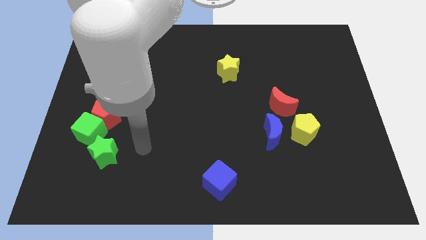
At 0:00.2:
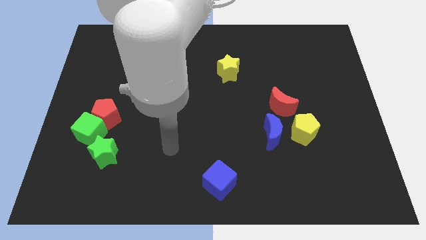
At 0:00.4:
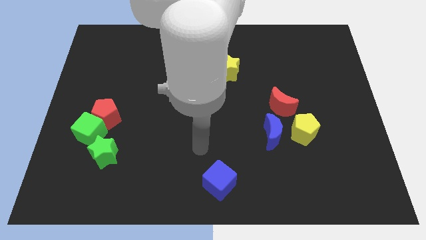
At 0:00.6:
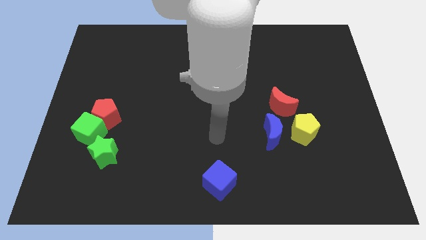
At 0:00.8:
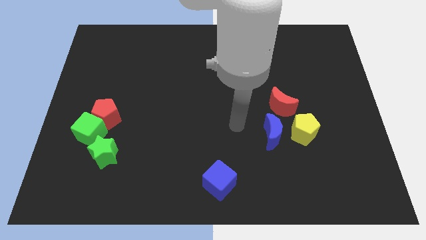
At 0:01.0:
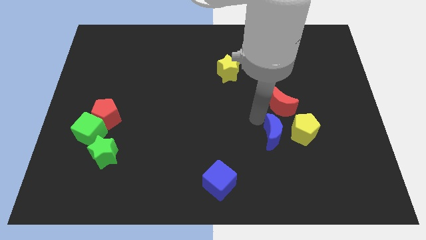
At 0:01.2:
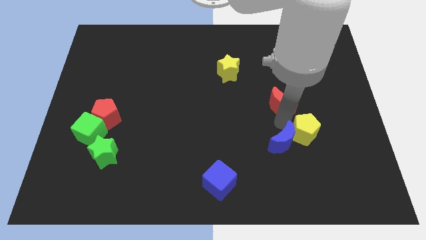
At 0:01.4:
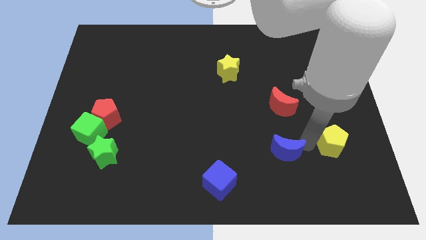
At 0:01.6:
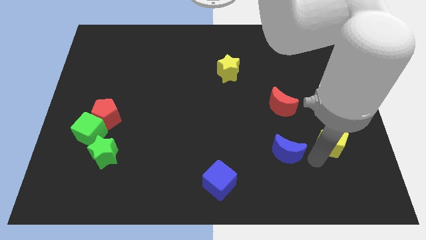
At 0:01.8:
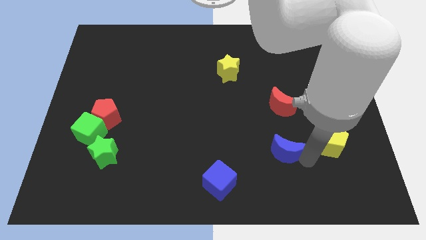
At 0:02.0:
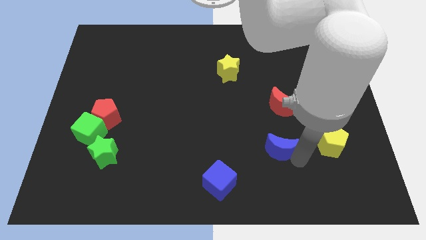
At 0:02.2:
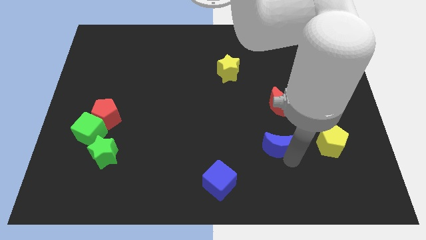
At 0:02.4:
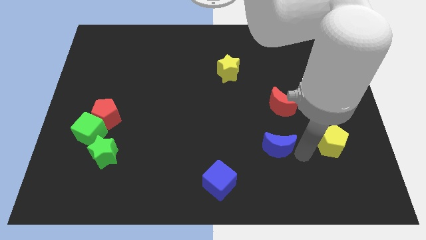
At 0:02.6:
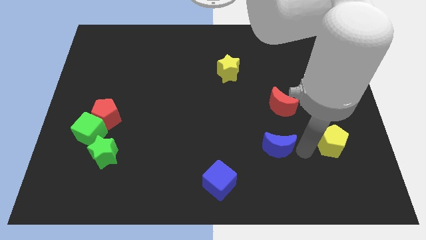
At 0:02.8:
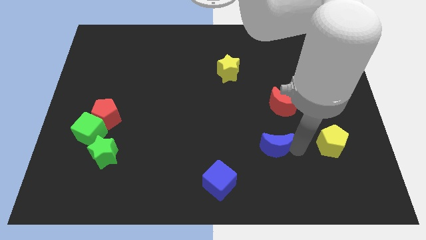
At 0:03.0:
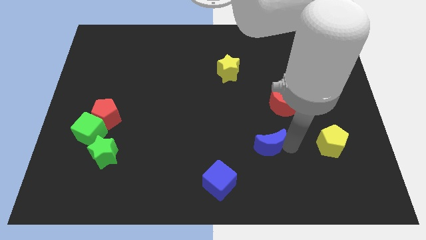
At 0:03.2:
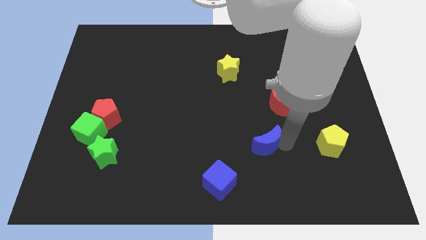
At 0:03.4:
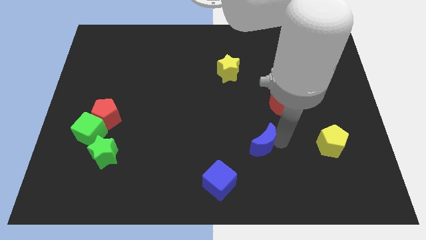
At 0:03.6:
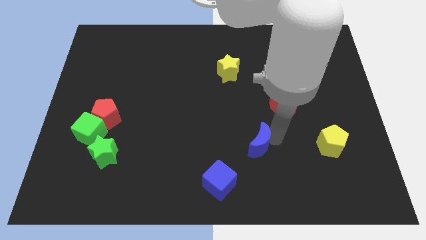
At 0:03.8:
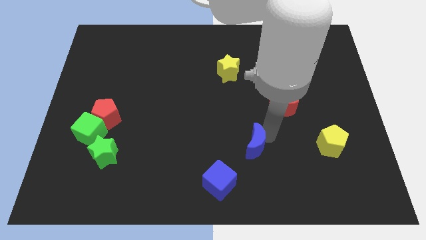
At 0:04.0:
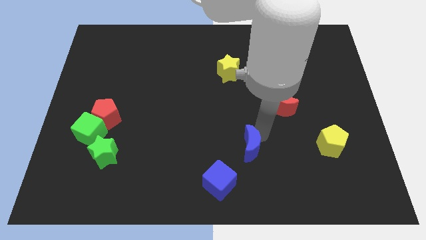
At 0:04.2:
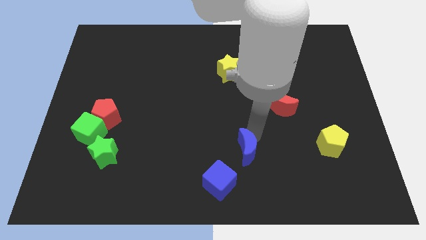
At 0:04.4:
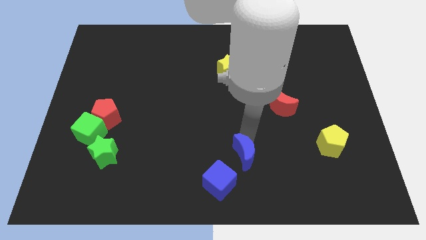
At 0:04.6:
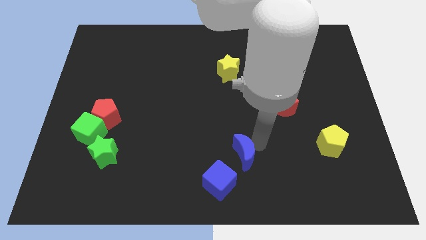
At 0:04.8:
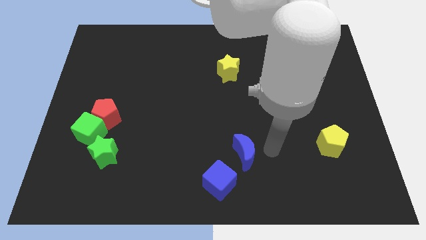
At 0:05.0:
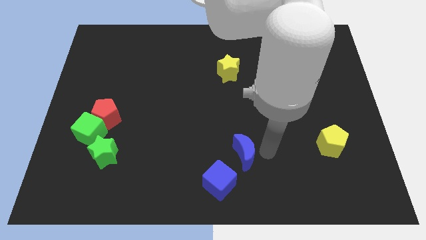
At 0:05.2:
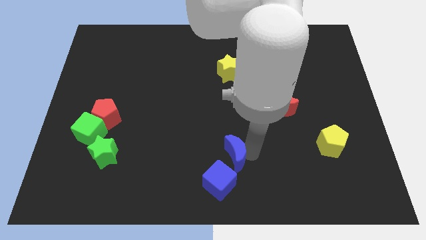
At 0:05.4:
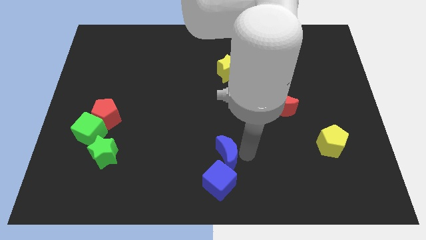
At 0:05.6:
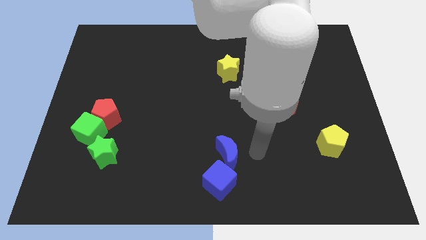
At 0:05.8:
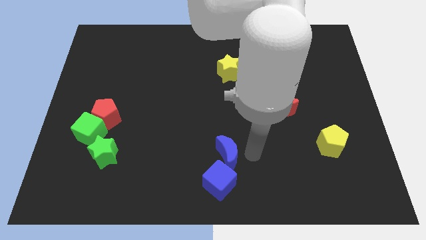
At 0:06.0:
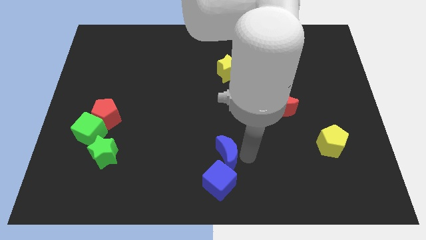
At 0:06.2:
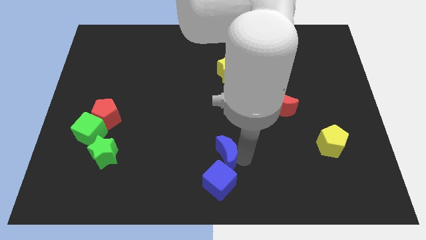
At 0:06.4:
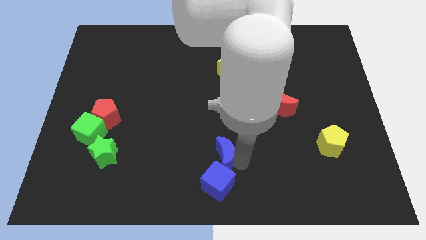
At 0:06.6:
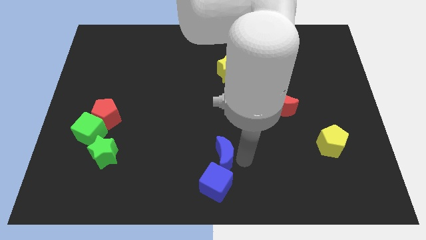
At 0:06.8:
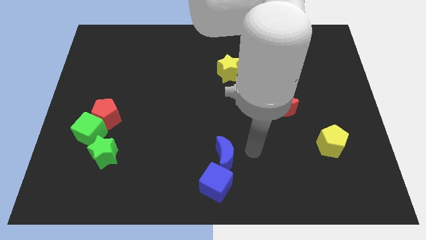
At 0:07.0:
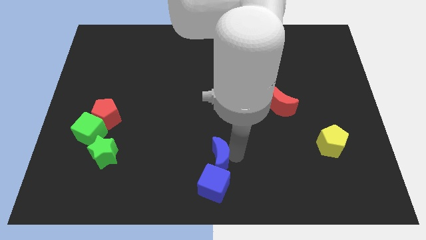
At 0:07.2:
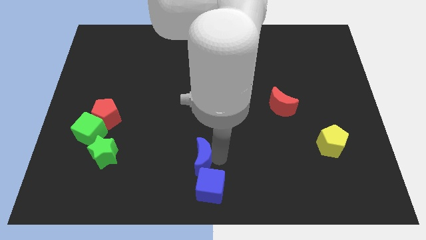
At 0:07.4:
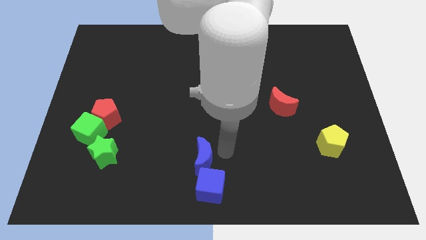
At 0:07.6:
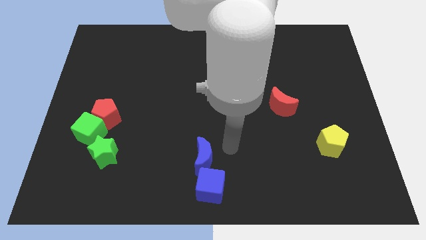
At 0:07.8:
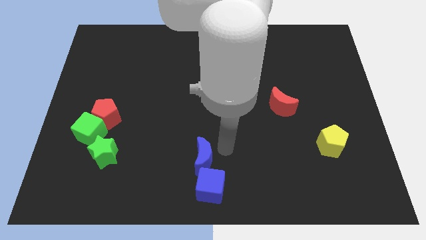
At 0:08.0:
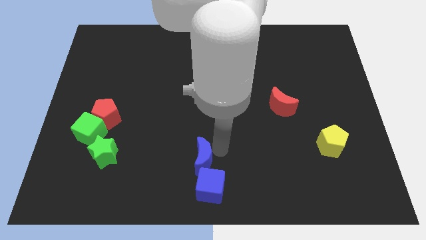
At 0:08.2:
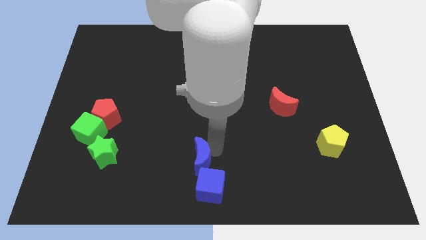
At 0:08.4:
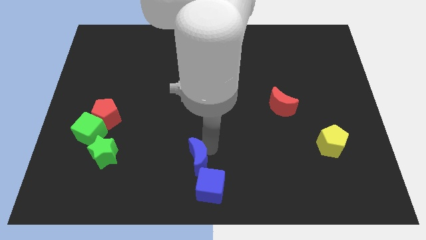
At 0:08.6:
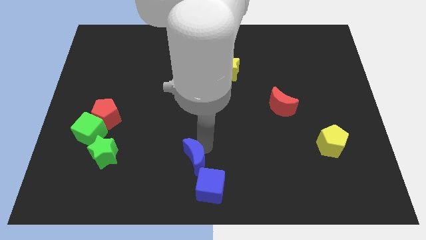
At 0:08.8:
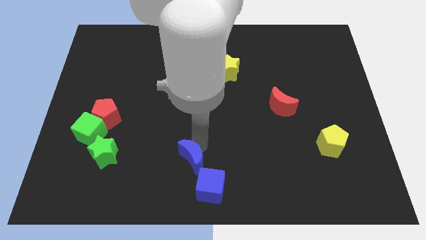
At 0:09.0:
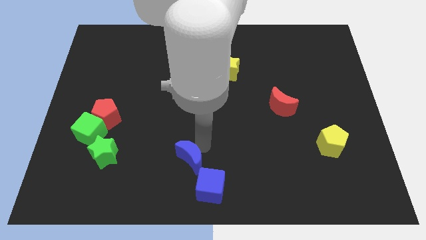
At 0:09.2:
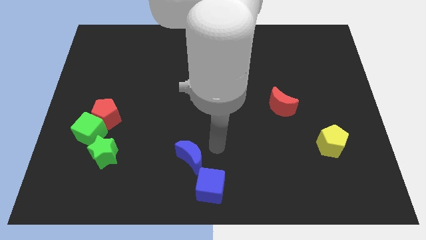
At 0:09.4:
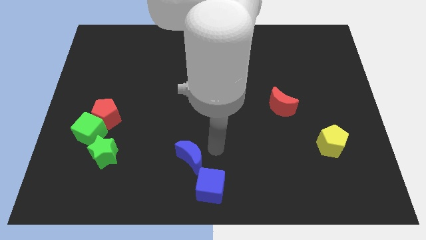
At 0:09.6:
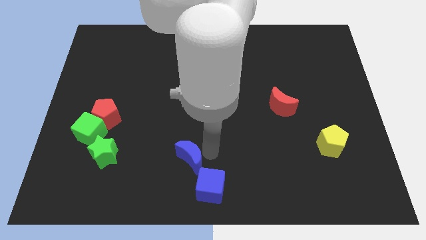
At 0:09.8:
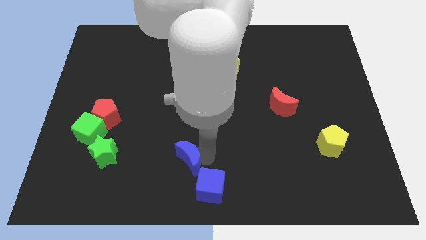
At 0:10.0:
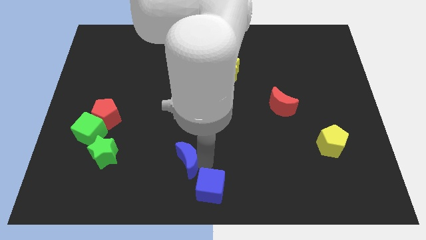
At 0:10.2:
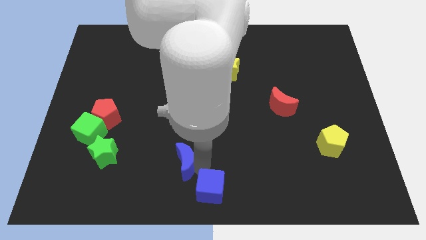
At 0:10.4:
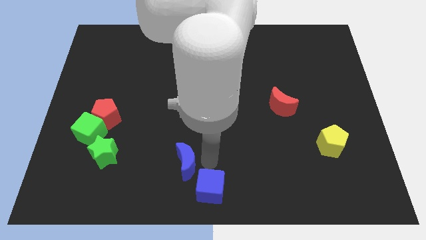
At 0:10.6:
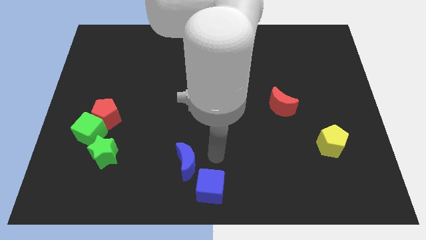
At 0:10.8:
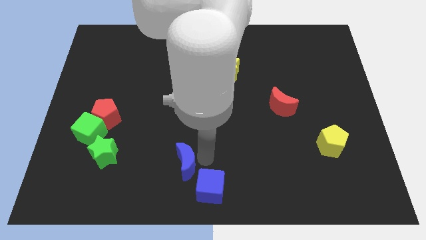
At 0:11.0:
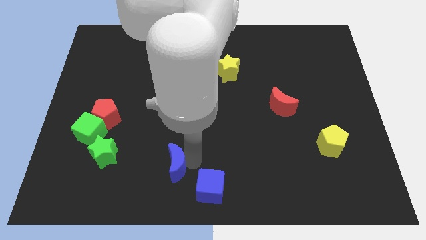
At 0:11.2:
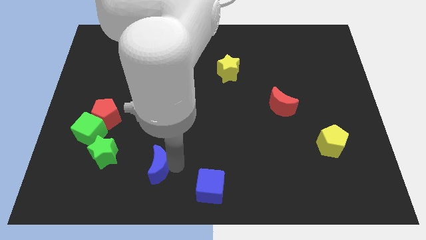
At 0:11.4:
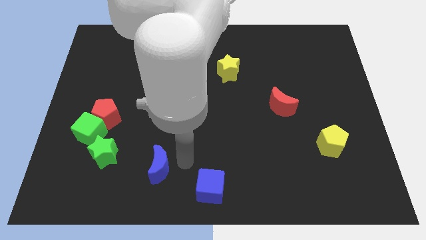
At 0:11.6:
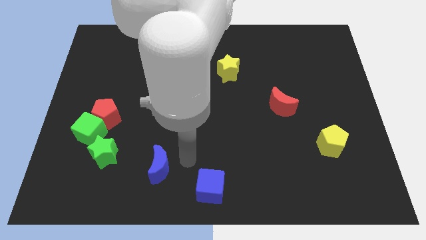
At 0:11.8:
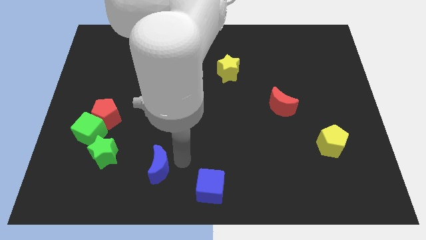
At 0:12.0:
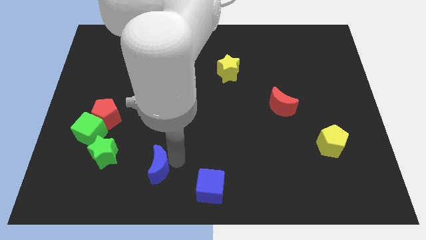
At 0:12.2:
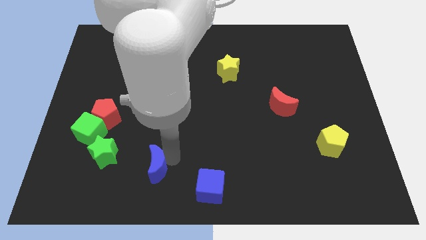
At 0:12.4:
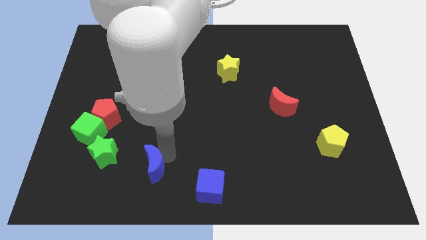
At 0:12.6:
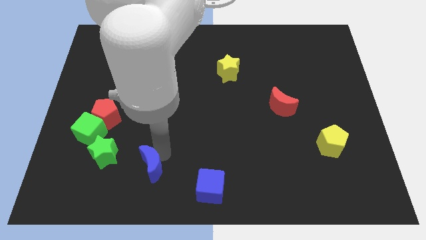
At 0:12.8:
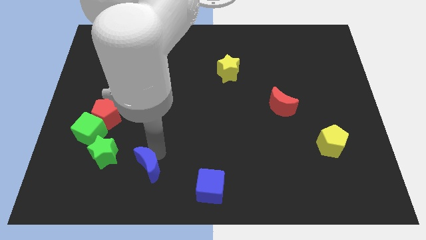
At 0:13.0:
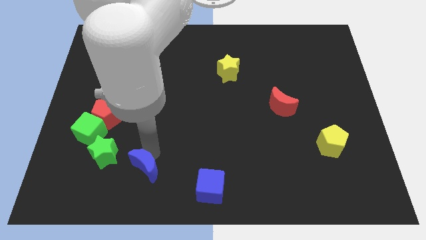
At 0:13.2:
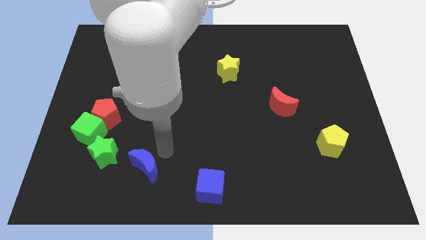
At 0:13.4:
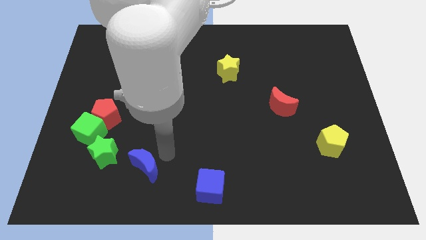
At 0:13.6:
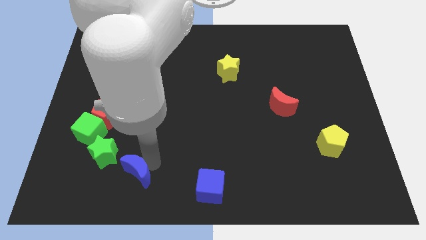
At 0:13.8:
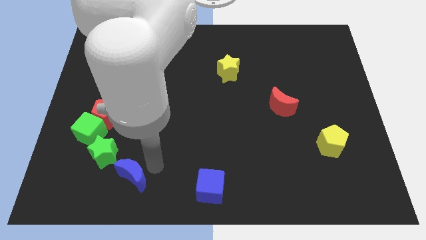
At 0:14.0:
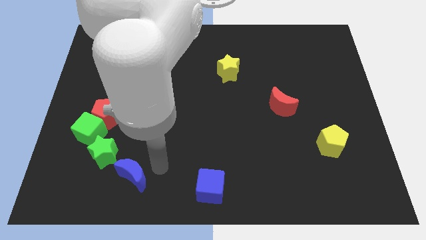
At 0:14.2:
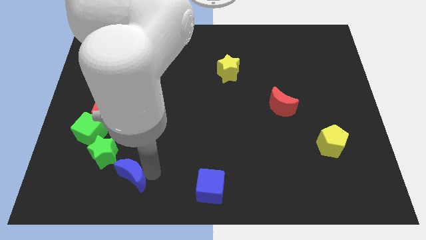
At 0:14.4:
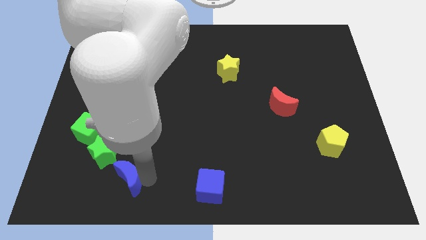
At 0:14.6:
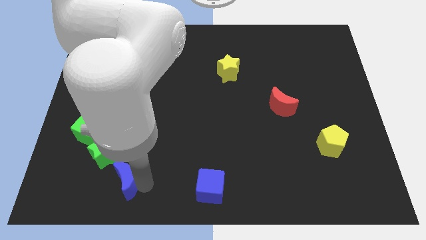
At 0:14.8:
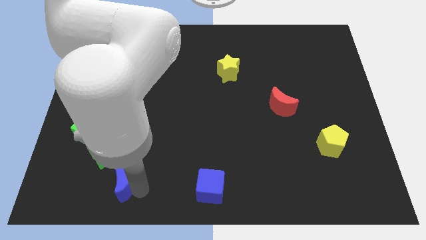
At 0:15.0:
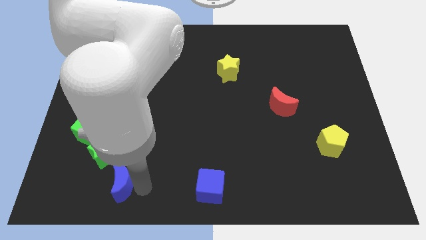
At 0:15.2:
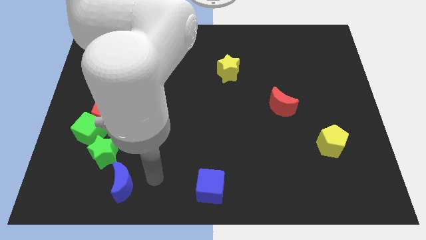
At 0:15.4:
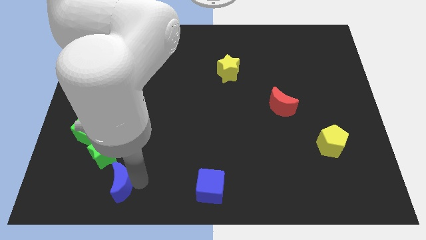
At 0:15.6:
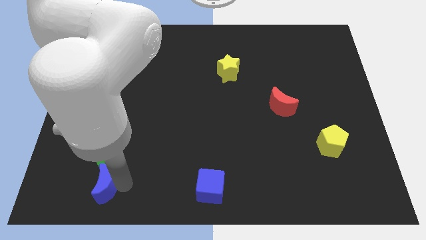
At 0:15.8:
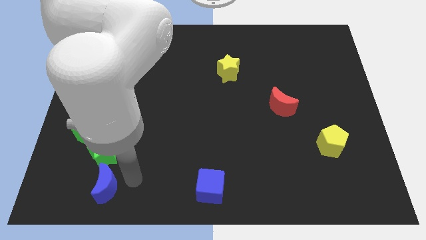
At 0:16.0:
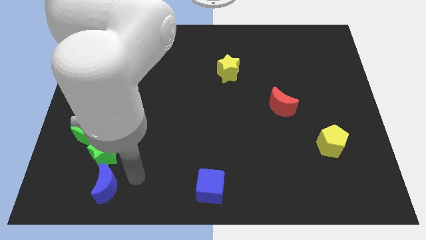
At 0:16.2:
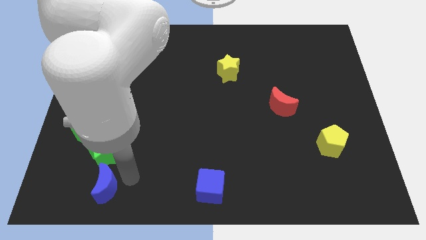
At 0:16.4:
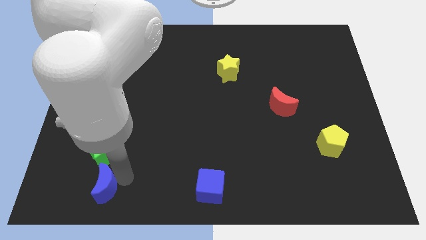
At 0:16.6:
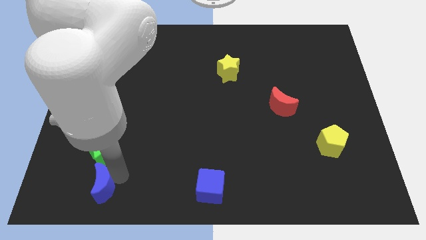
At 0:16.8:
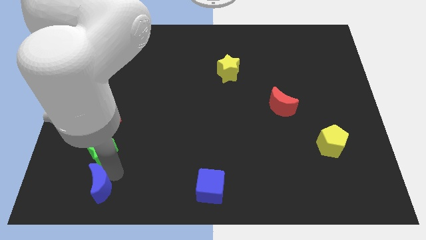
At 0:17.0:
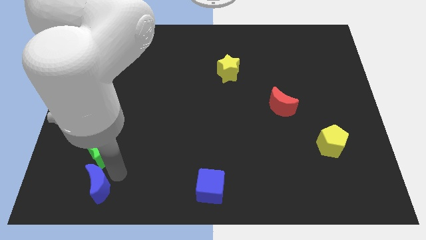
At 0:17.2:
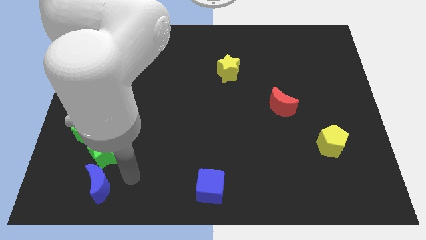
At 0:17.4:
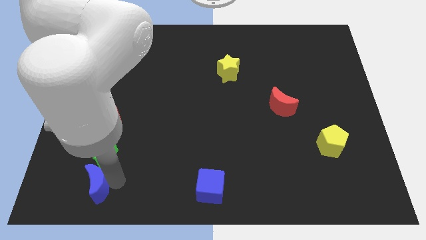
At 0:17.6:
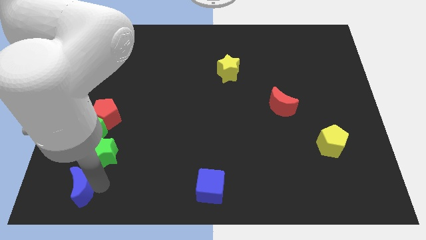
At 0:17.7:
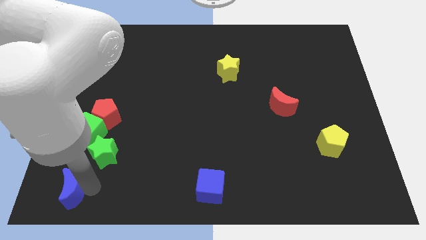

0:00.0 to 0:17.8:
put the blue moon to the bottom left of the board
